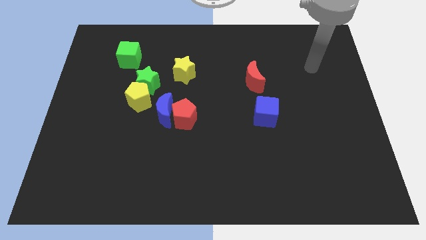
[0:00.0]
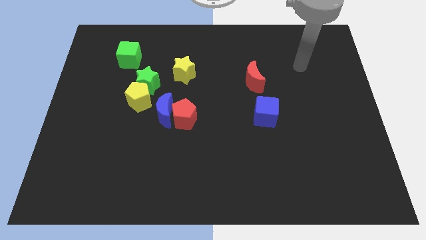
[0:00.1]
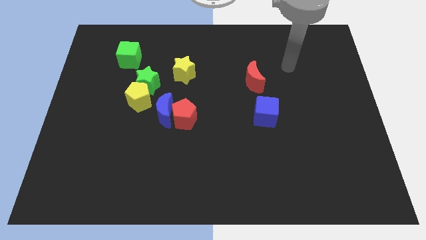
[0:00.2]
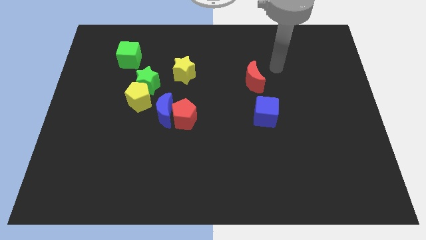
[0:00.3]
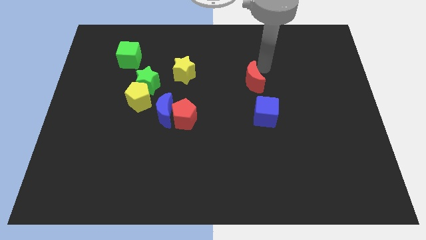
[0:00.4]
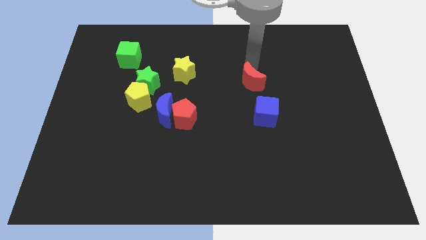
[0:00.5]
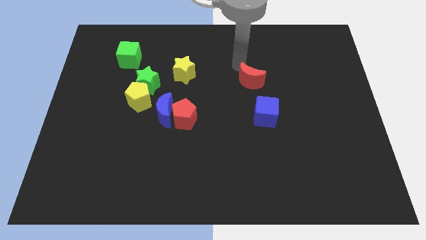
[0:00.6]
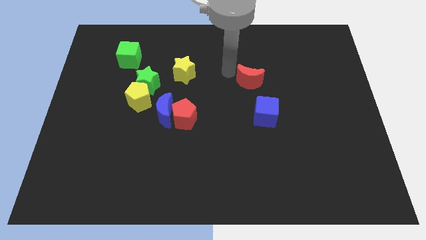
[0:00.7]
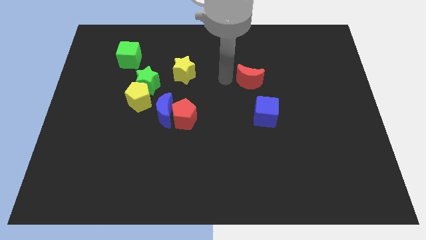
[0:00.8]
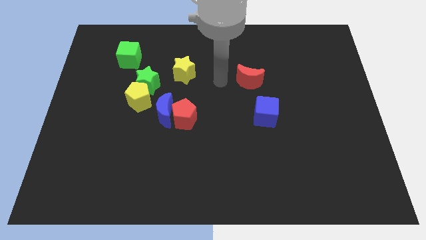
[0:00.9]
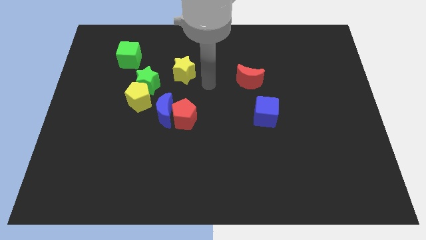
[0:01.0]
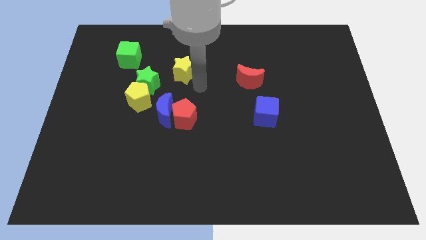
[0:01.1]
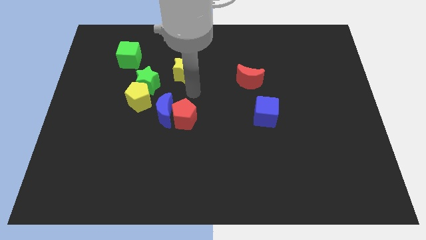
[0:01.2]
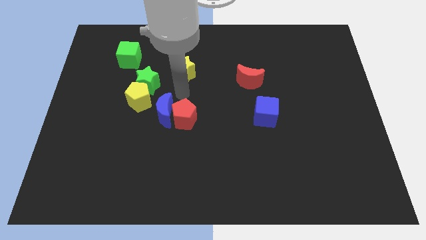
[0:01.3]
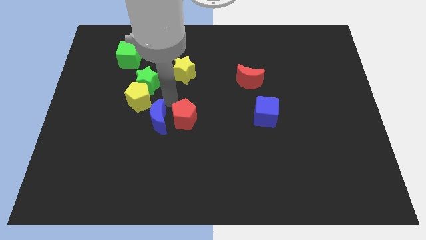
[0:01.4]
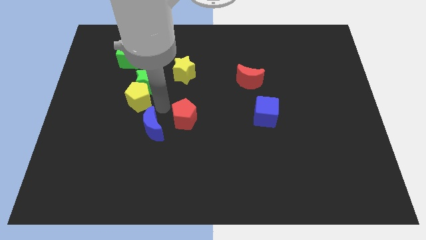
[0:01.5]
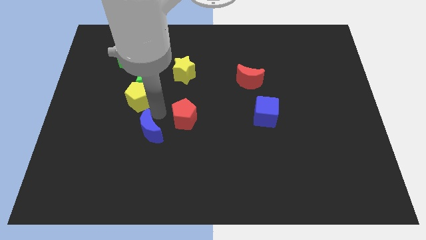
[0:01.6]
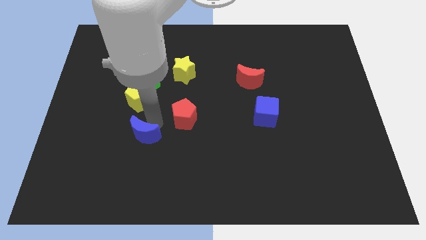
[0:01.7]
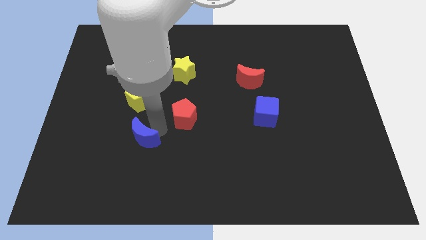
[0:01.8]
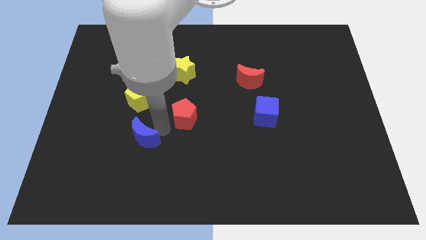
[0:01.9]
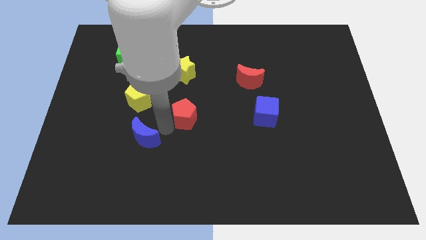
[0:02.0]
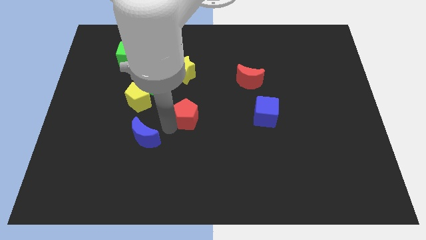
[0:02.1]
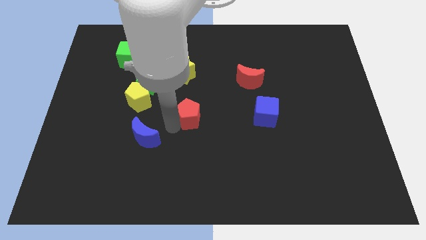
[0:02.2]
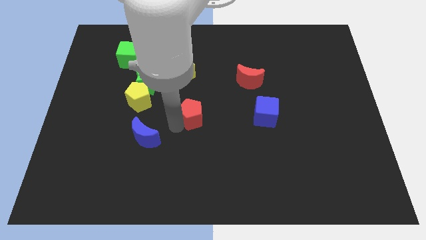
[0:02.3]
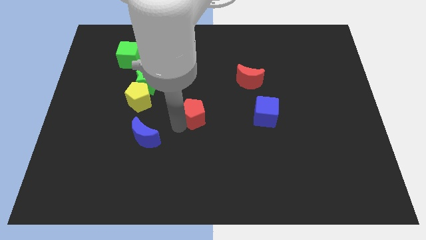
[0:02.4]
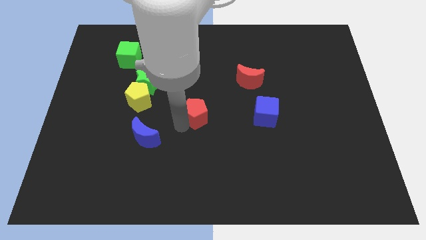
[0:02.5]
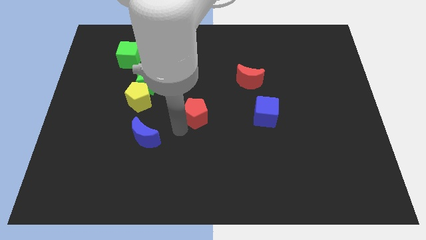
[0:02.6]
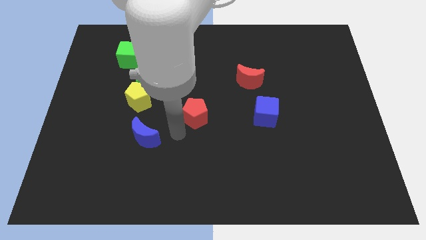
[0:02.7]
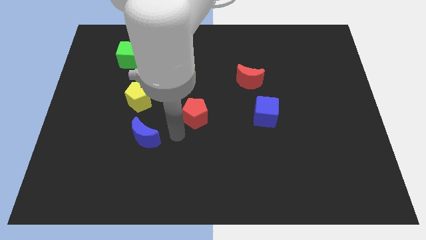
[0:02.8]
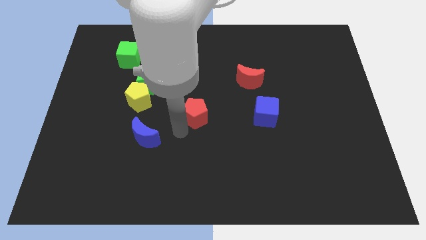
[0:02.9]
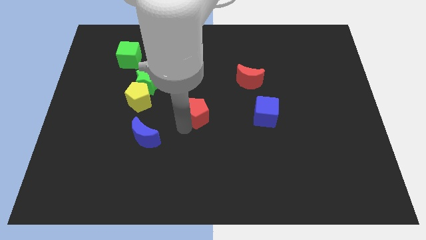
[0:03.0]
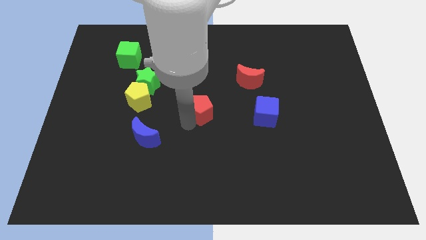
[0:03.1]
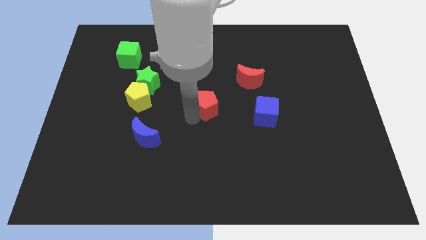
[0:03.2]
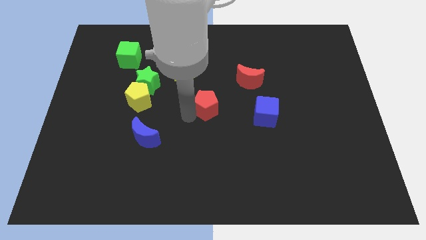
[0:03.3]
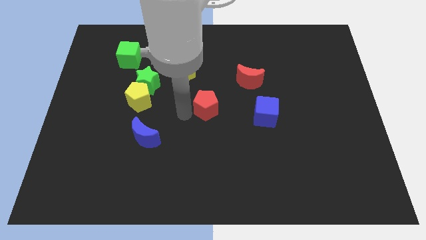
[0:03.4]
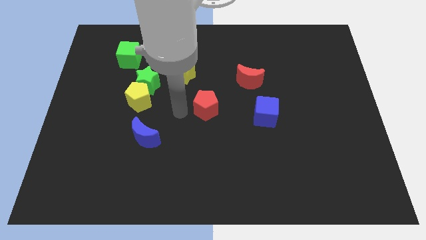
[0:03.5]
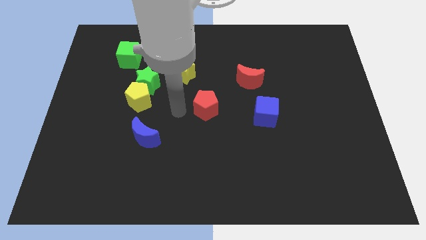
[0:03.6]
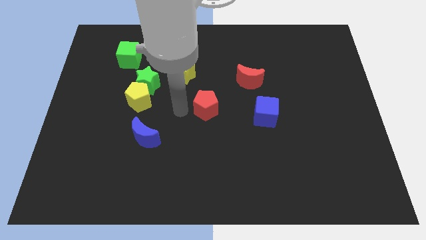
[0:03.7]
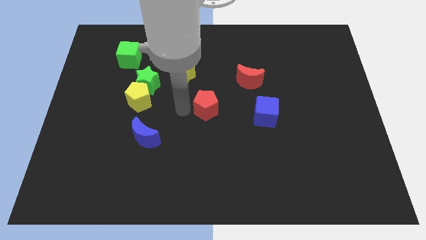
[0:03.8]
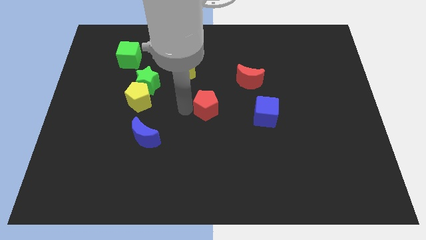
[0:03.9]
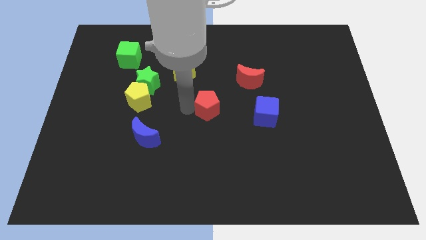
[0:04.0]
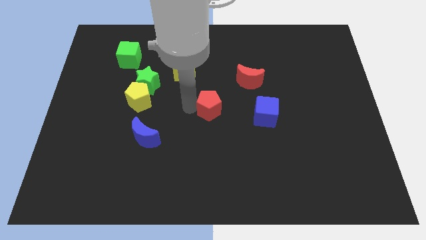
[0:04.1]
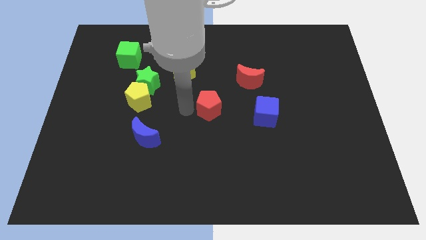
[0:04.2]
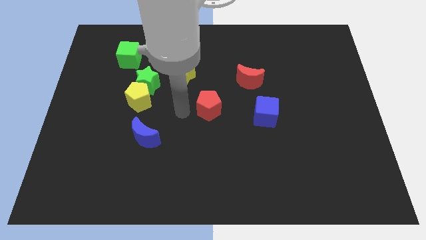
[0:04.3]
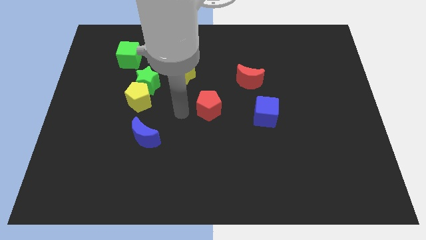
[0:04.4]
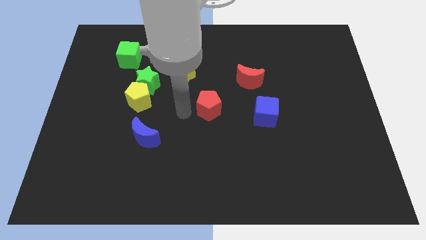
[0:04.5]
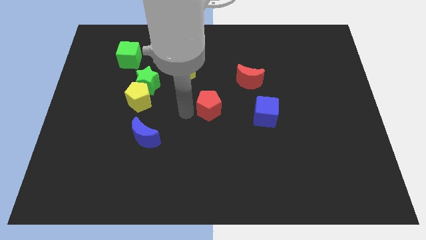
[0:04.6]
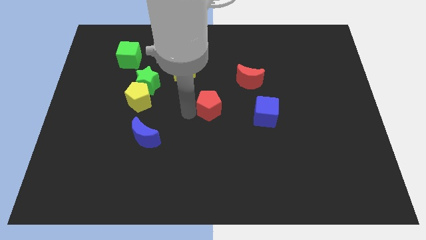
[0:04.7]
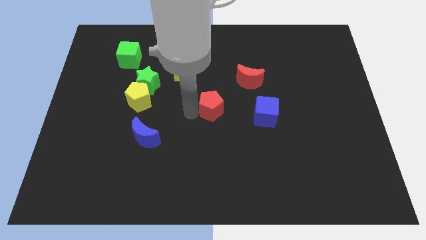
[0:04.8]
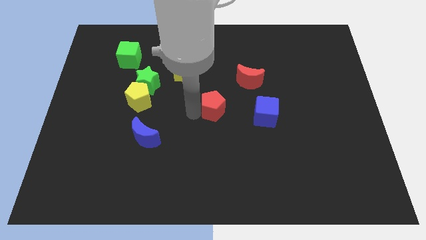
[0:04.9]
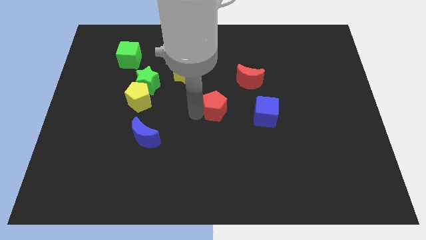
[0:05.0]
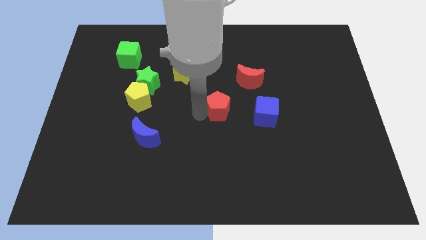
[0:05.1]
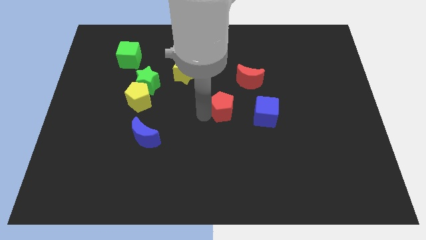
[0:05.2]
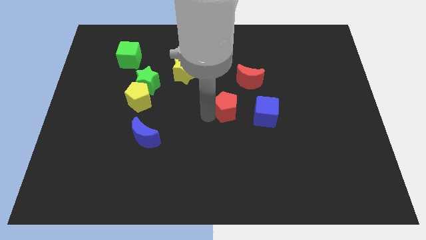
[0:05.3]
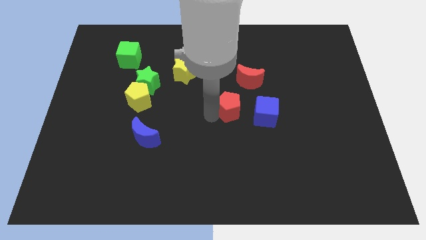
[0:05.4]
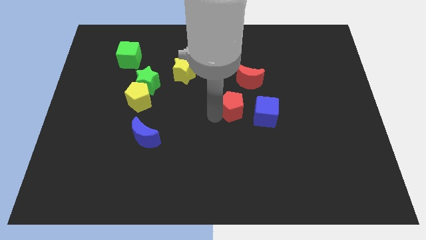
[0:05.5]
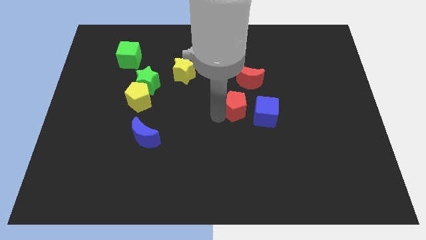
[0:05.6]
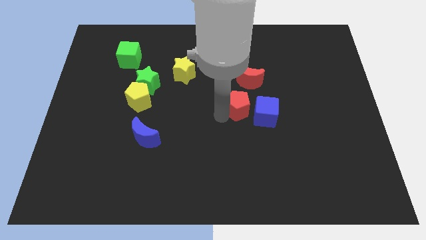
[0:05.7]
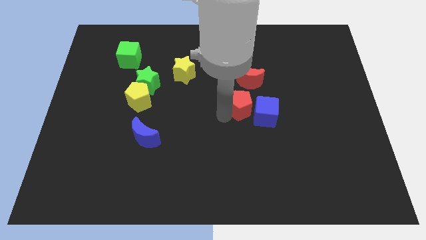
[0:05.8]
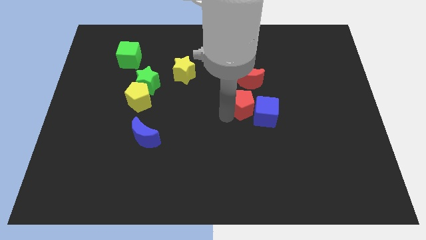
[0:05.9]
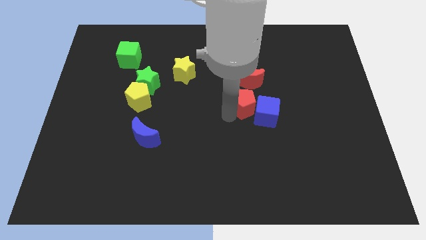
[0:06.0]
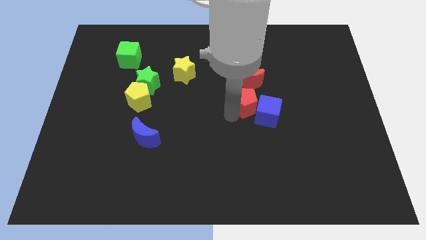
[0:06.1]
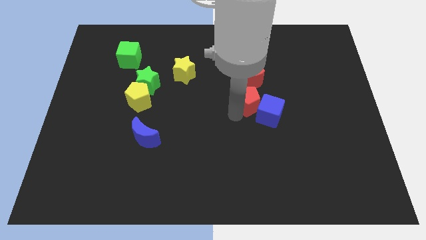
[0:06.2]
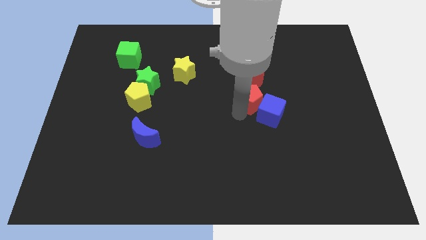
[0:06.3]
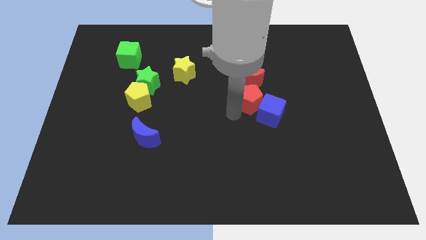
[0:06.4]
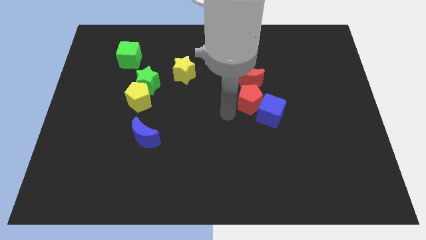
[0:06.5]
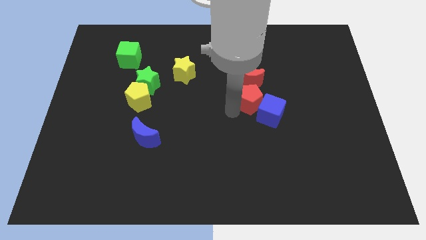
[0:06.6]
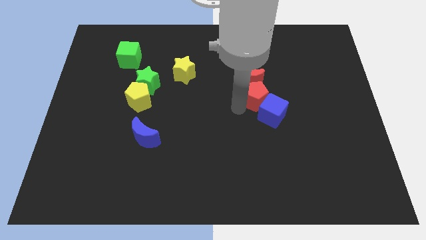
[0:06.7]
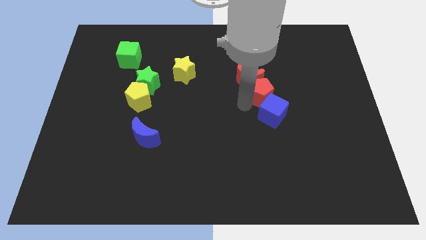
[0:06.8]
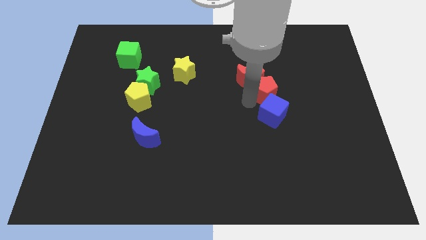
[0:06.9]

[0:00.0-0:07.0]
move the red pentagon right of the red moon
